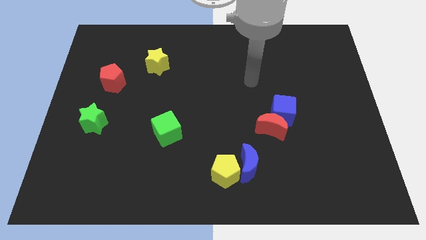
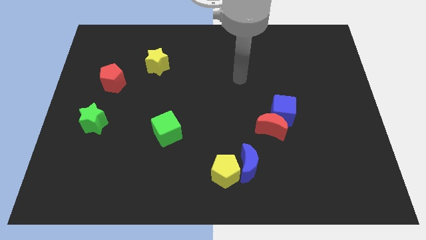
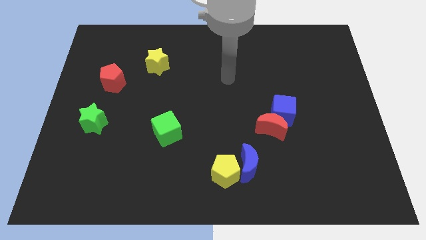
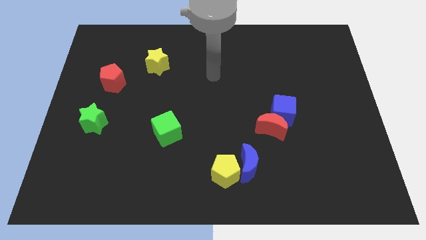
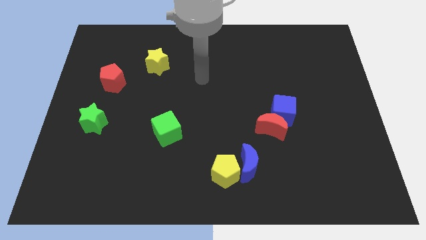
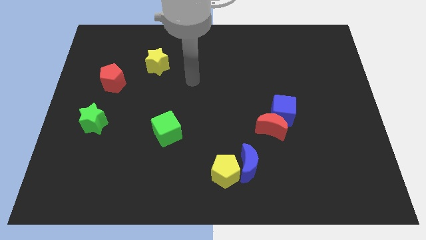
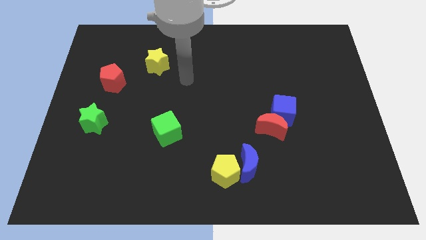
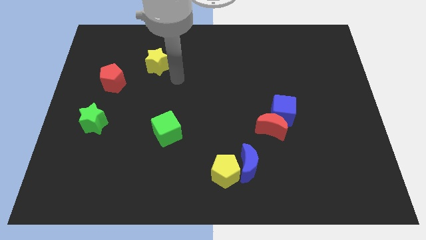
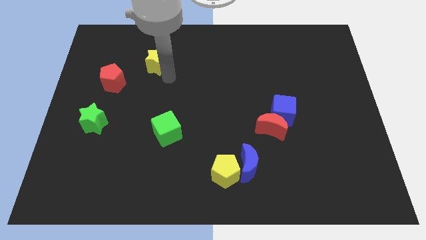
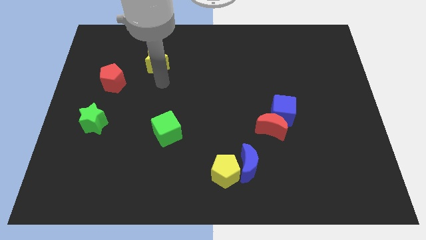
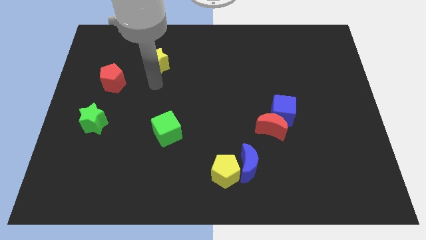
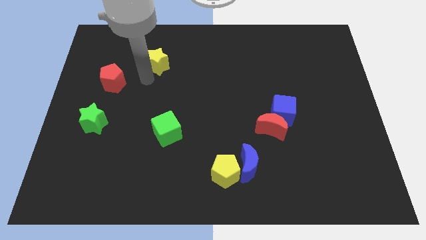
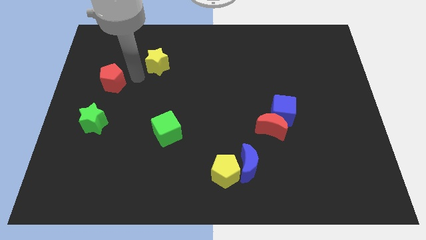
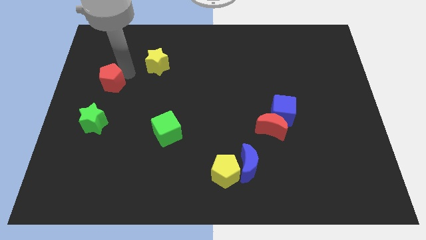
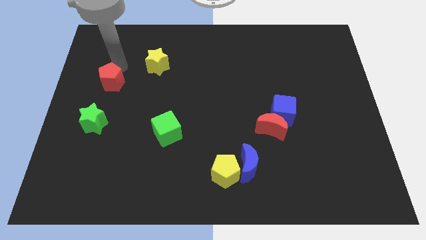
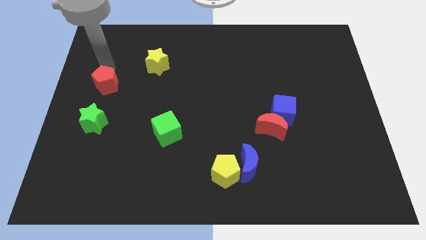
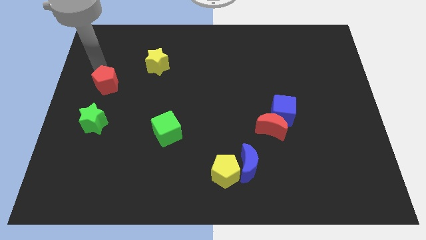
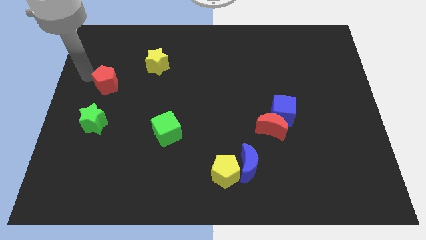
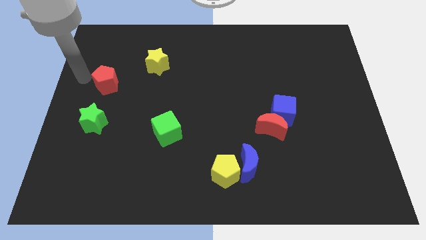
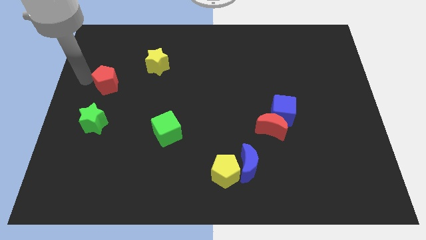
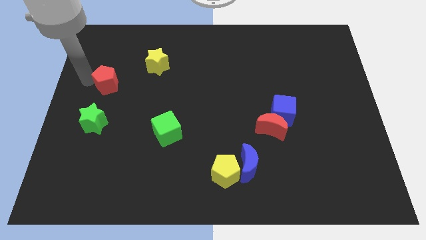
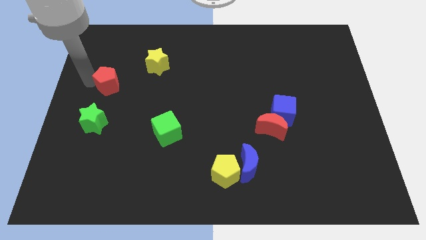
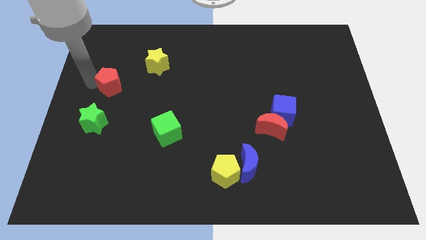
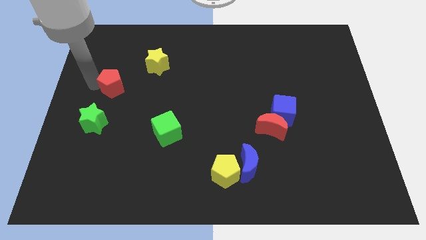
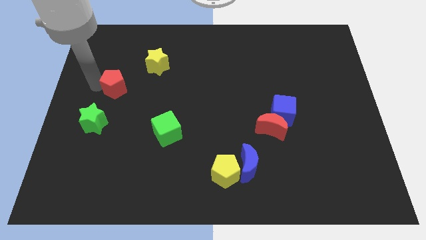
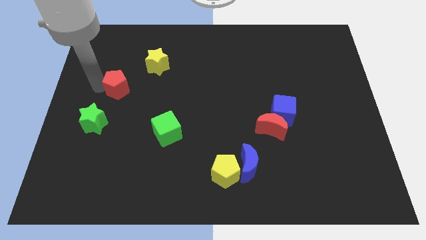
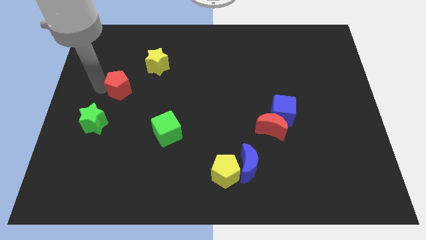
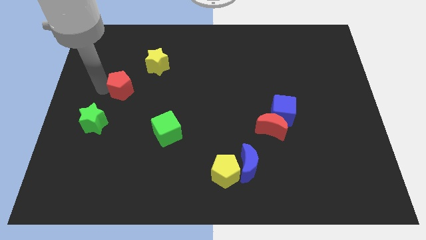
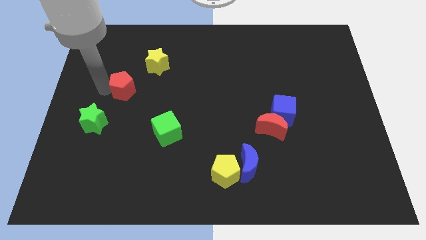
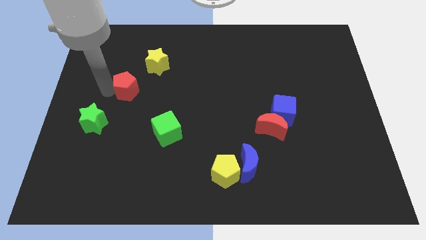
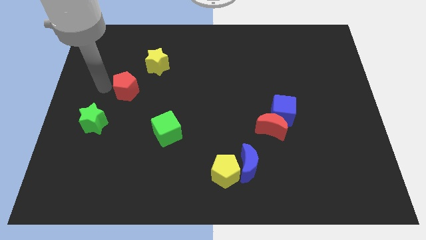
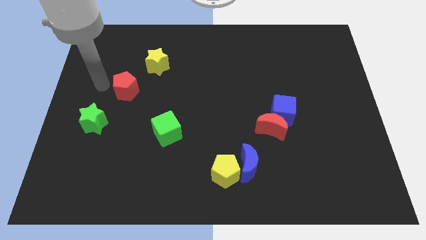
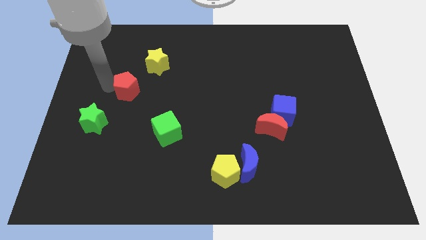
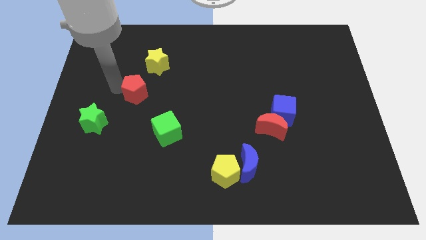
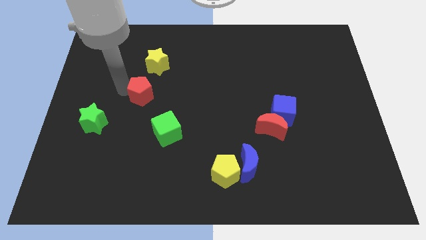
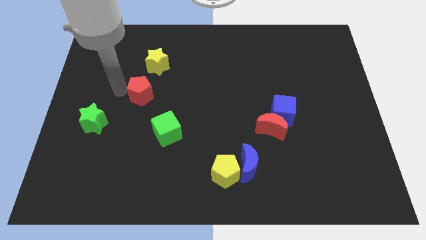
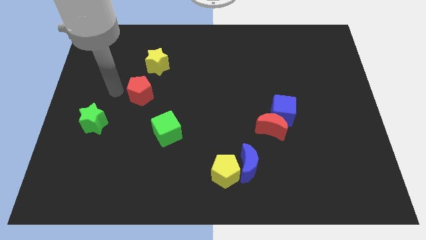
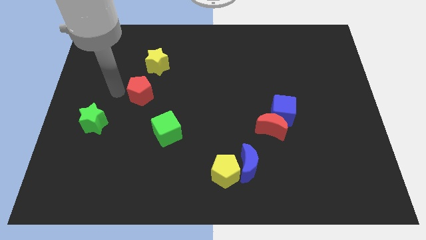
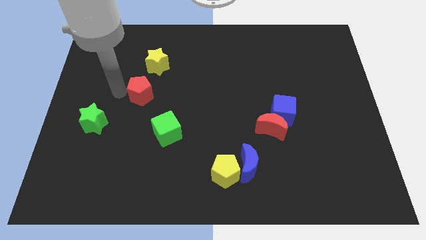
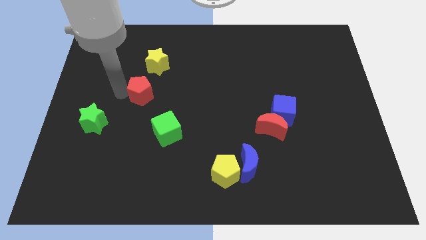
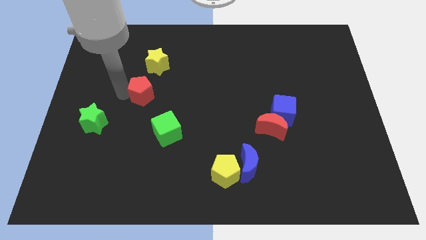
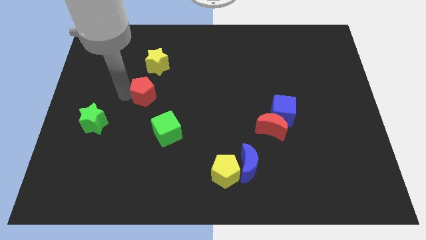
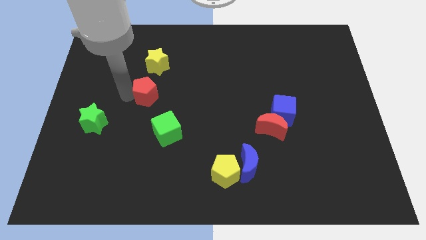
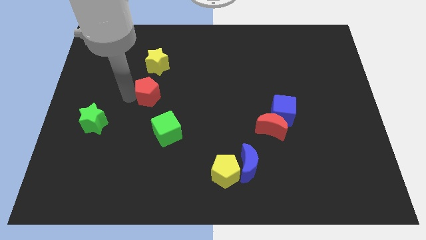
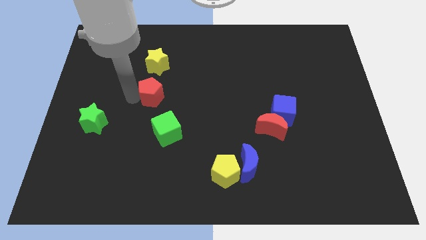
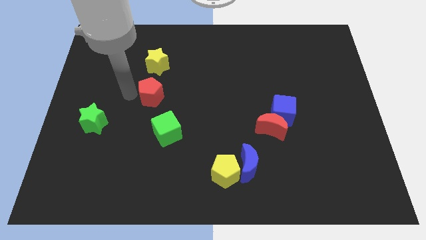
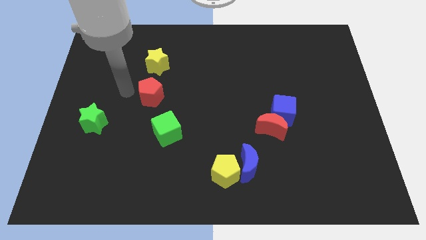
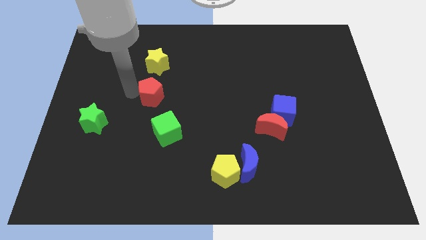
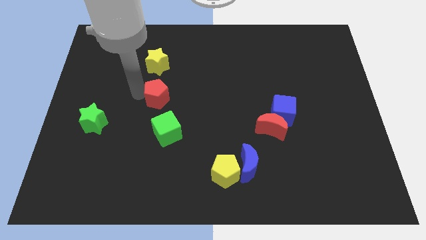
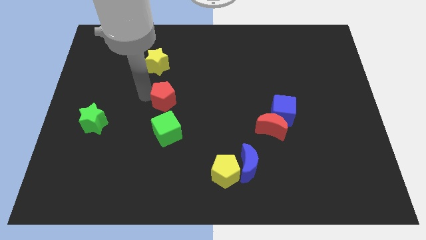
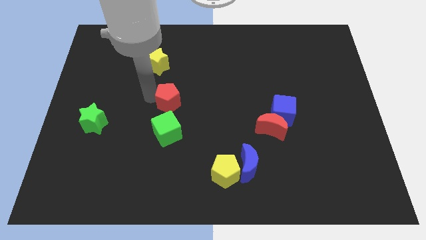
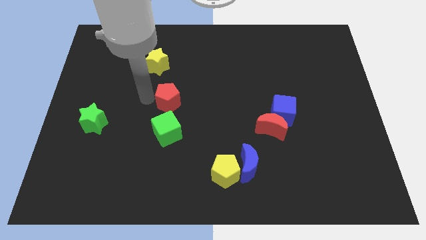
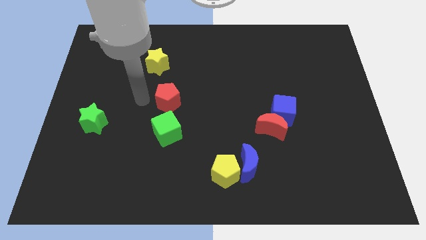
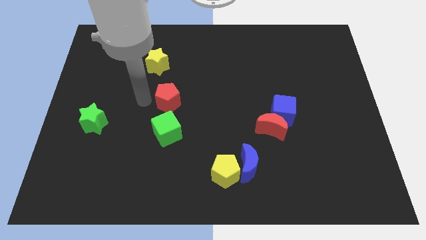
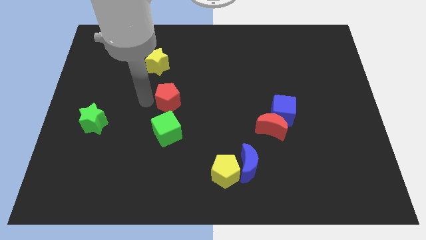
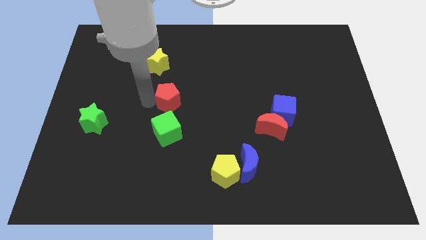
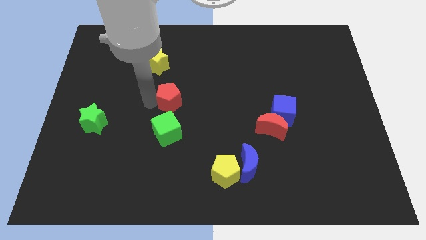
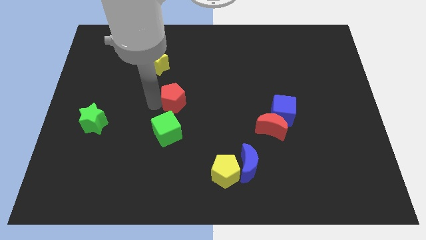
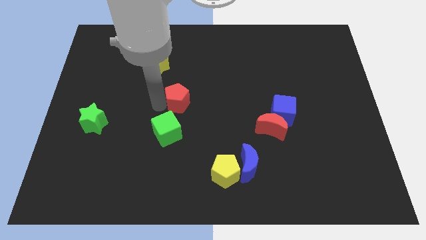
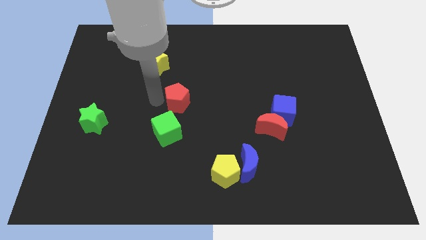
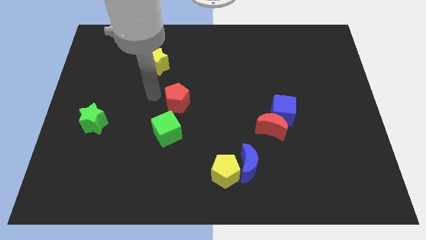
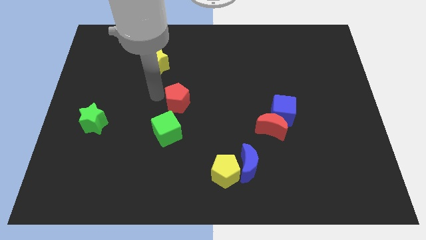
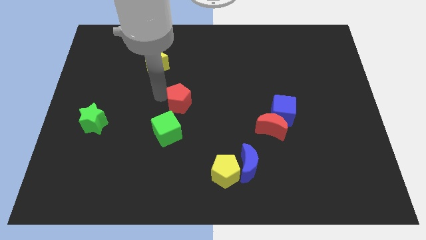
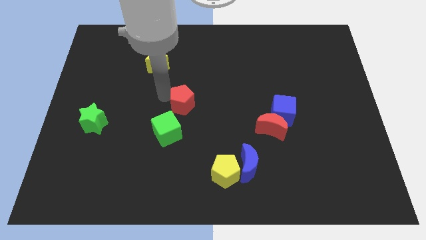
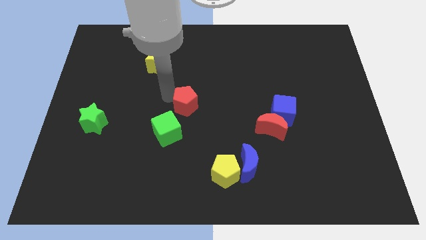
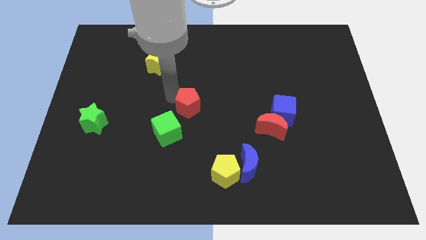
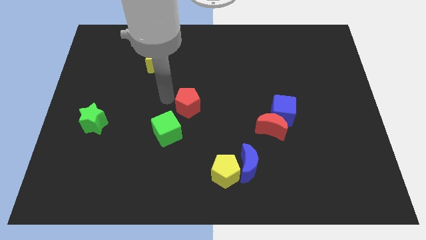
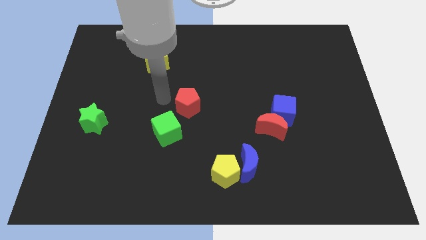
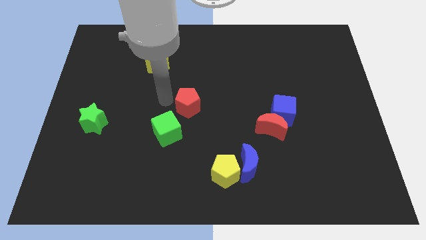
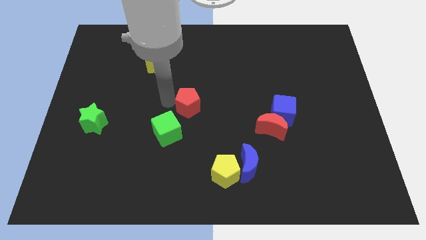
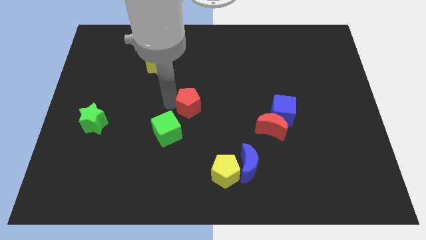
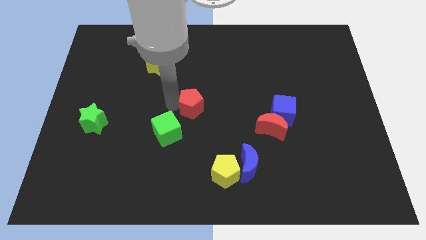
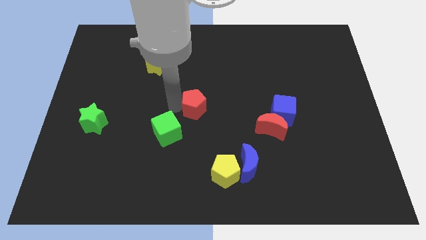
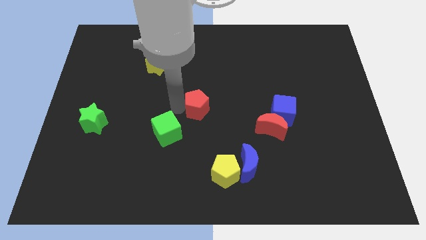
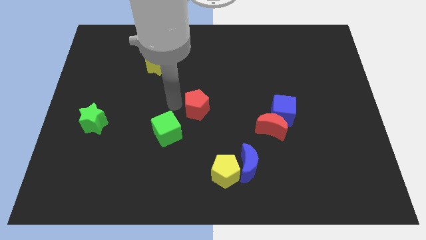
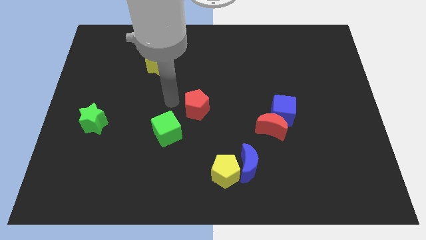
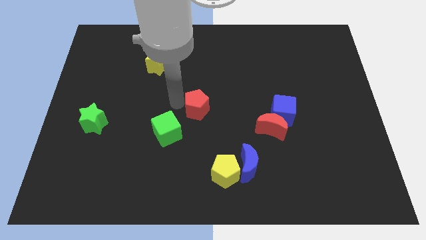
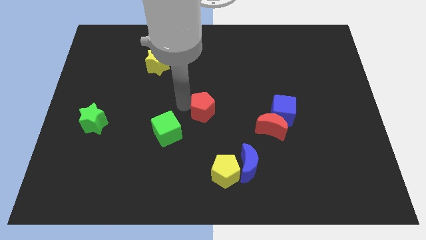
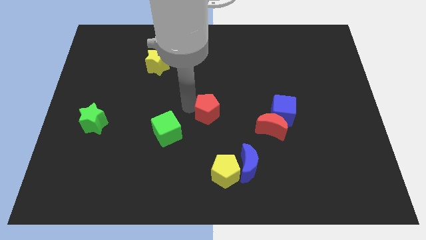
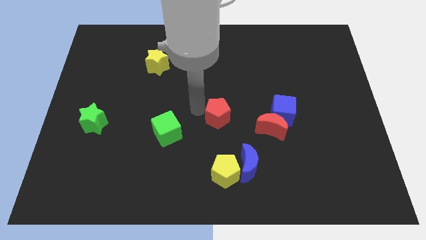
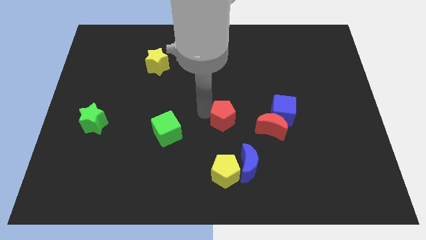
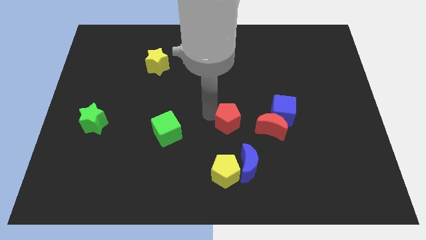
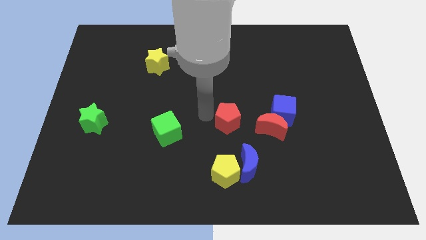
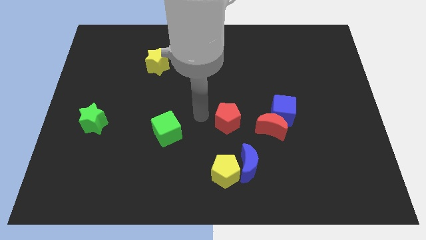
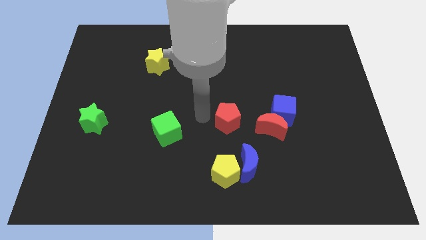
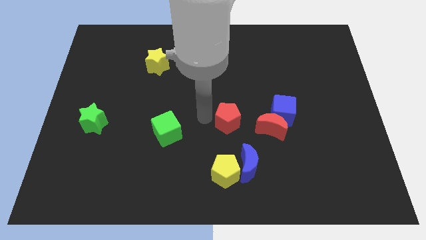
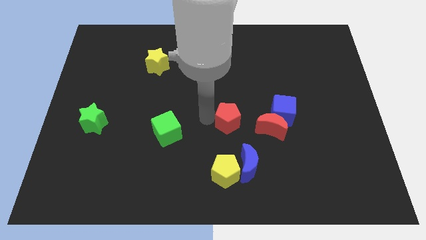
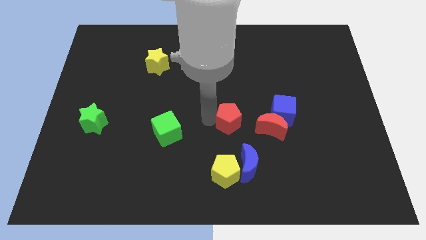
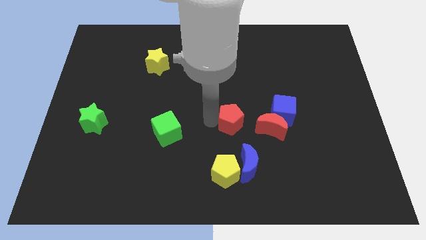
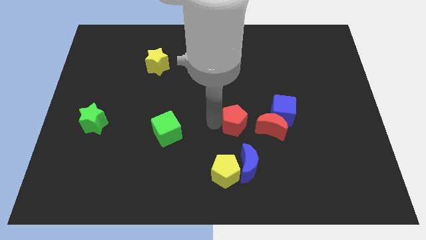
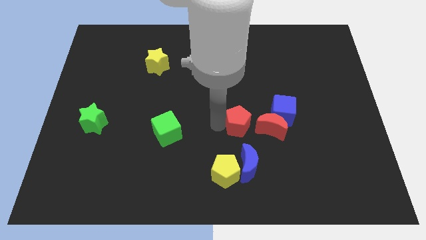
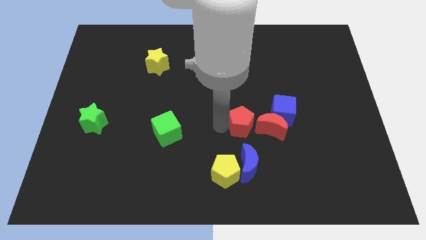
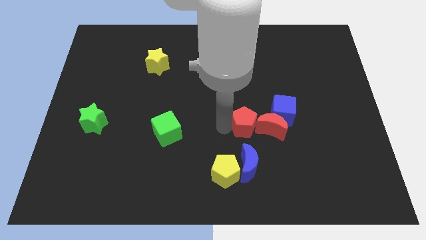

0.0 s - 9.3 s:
put the red pentagon next to the red moon
